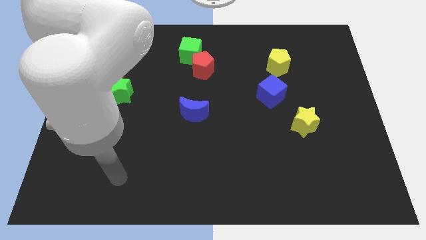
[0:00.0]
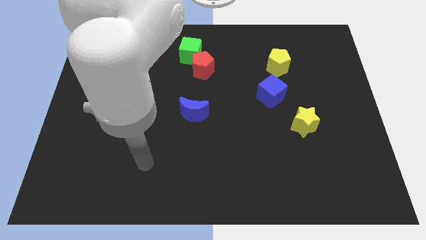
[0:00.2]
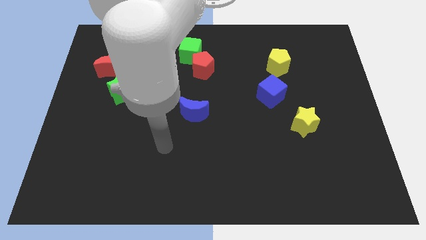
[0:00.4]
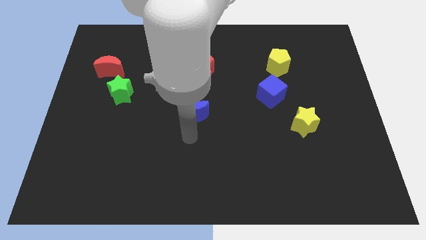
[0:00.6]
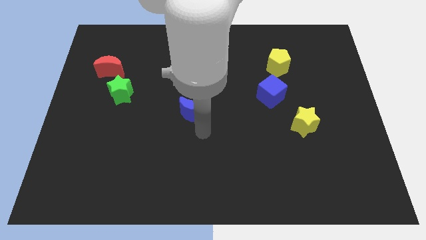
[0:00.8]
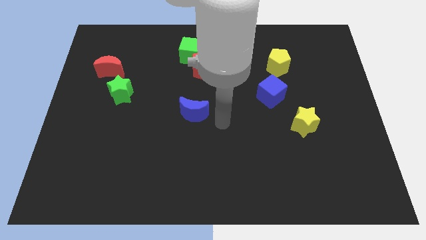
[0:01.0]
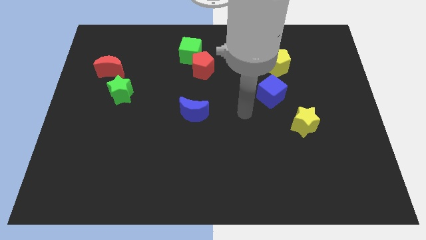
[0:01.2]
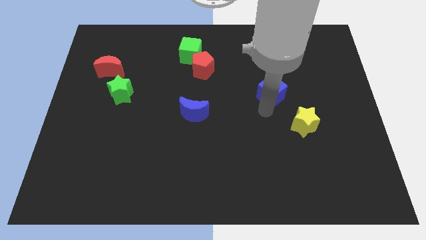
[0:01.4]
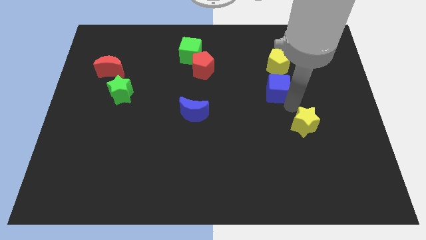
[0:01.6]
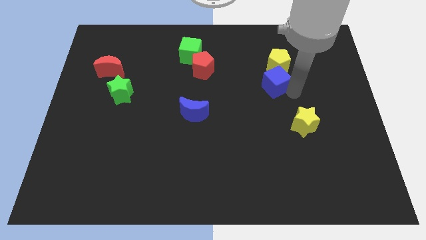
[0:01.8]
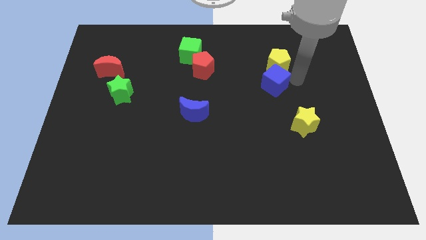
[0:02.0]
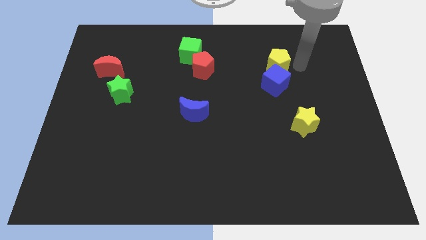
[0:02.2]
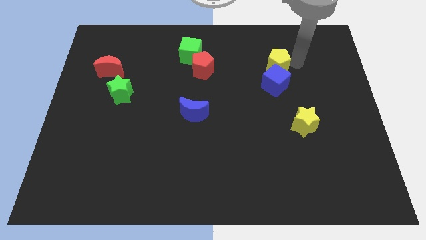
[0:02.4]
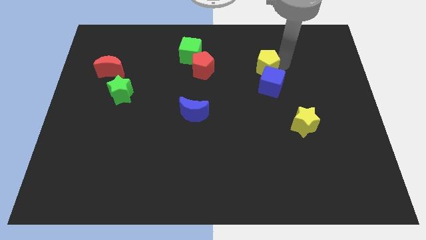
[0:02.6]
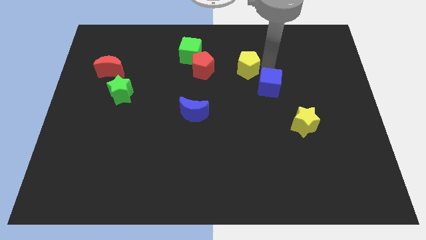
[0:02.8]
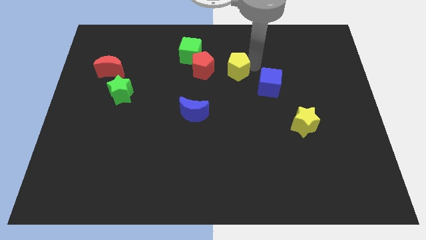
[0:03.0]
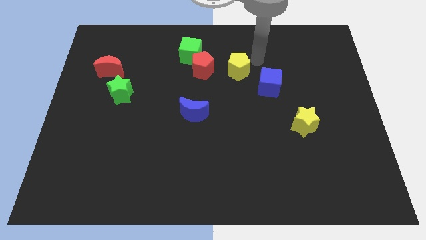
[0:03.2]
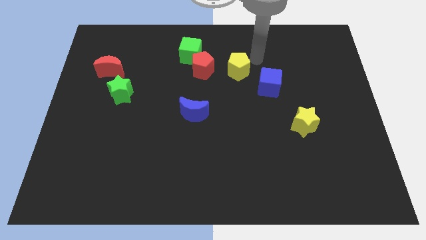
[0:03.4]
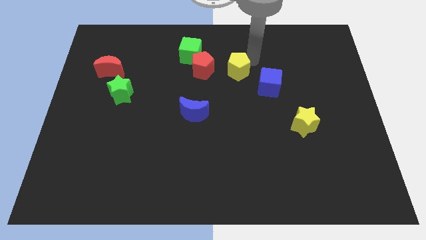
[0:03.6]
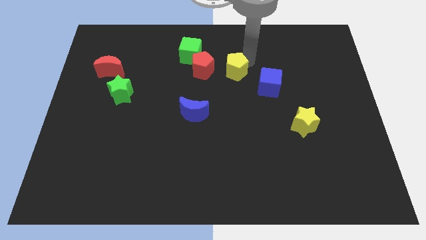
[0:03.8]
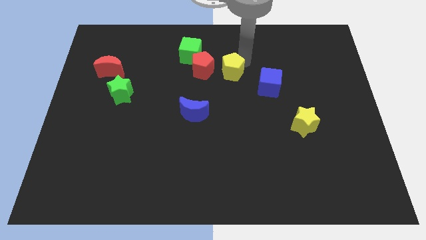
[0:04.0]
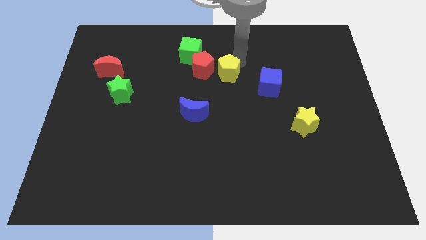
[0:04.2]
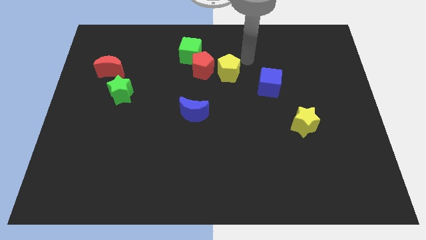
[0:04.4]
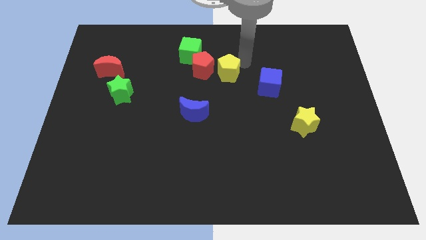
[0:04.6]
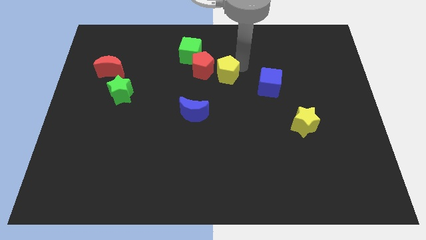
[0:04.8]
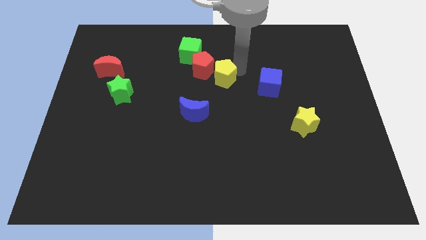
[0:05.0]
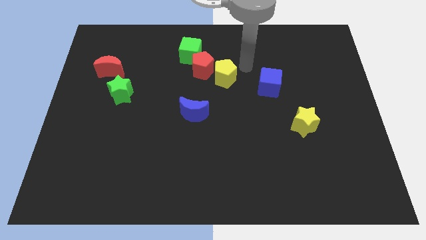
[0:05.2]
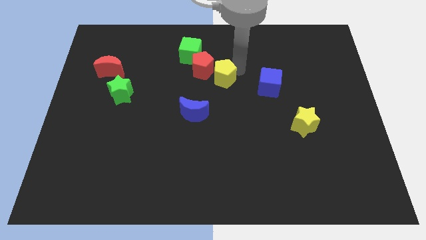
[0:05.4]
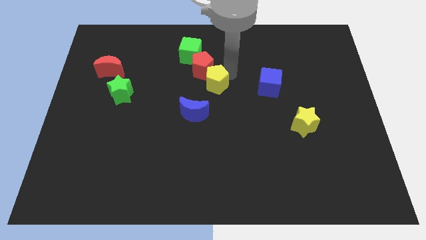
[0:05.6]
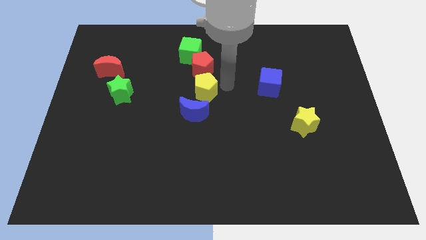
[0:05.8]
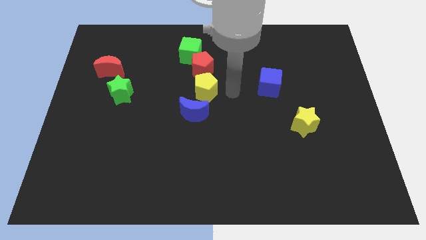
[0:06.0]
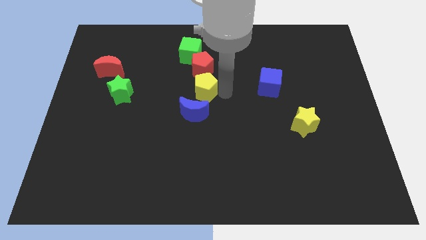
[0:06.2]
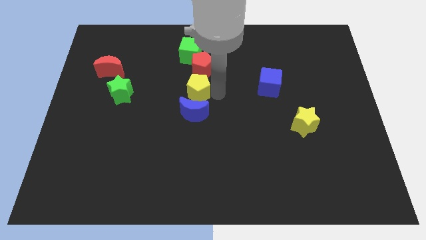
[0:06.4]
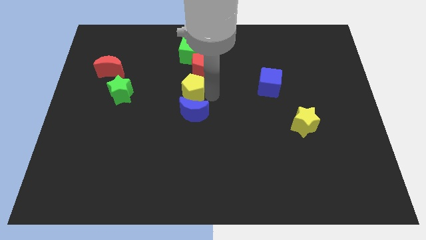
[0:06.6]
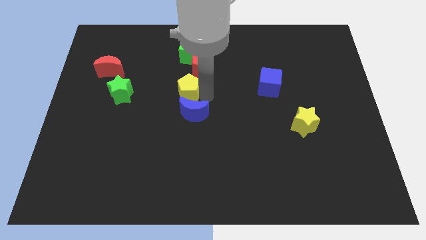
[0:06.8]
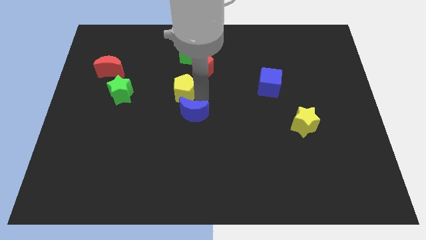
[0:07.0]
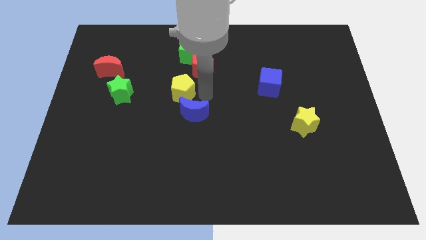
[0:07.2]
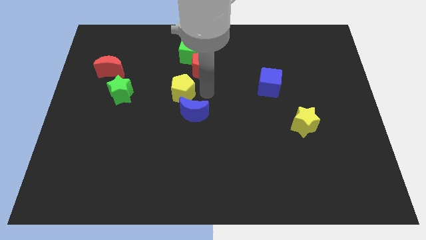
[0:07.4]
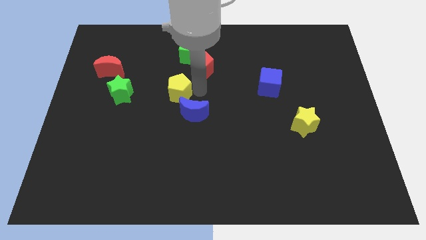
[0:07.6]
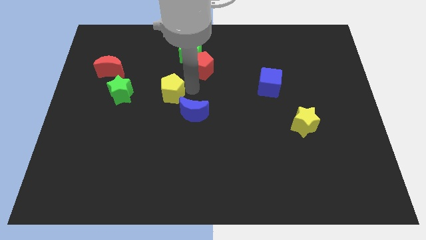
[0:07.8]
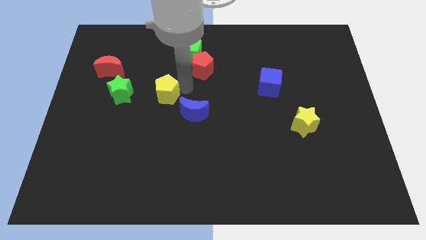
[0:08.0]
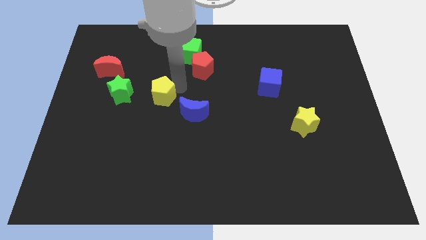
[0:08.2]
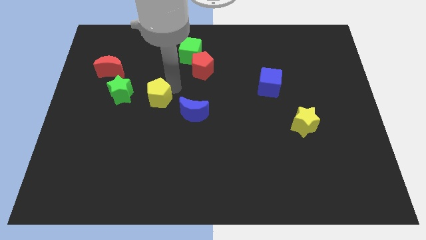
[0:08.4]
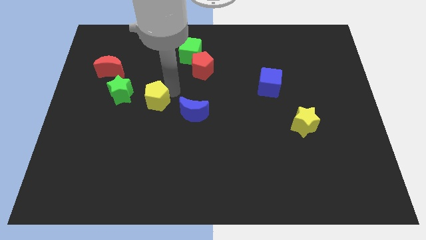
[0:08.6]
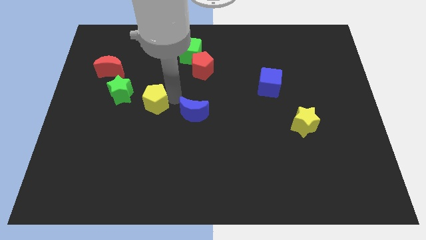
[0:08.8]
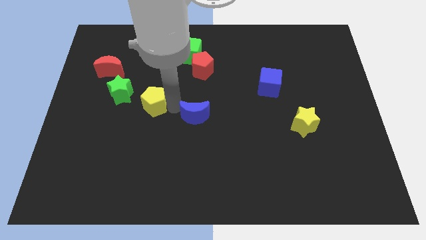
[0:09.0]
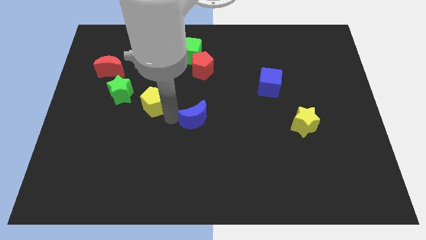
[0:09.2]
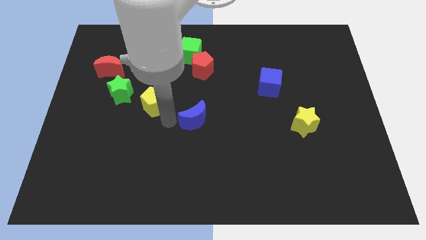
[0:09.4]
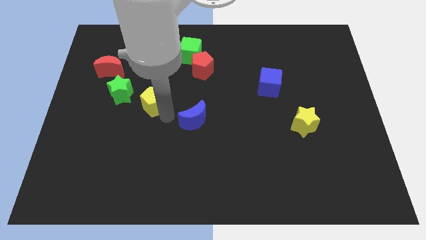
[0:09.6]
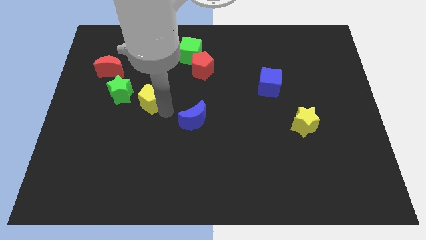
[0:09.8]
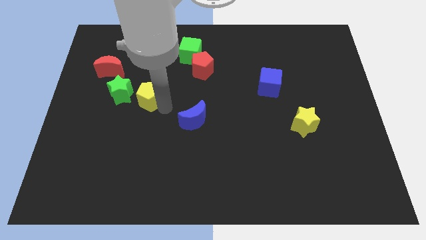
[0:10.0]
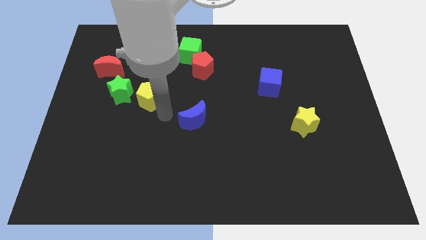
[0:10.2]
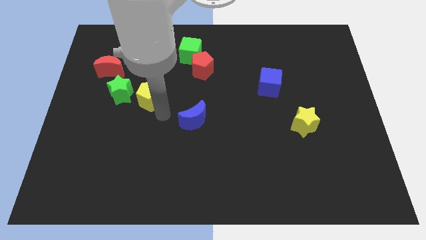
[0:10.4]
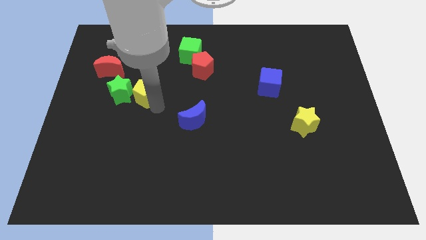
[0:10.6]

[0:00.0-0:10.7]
put the yellow pentagon close to the green star

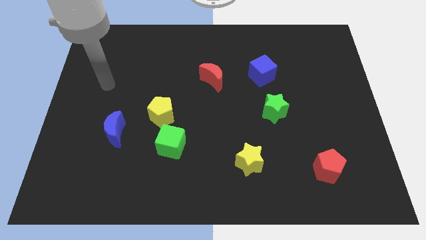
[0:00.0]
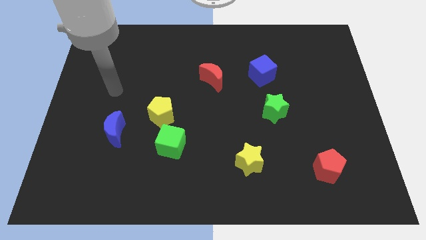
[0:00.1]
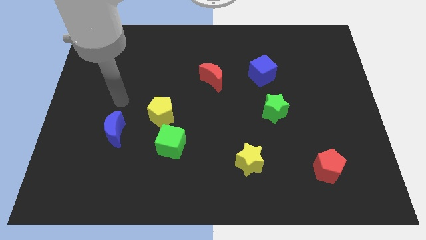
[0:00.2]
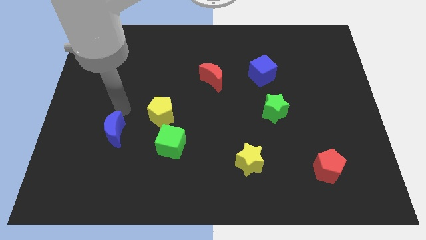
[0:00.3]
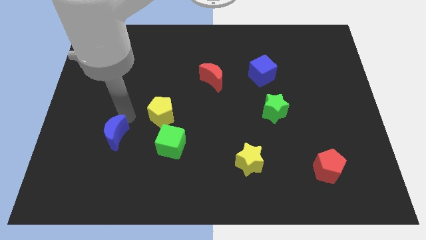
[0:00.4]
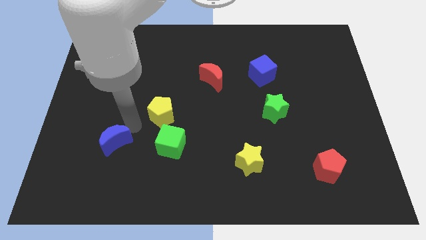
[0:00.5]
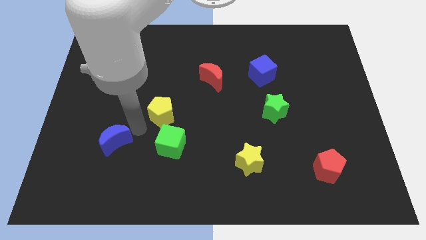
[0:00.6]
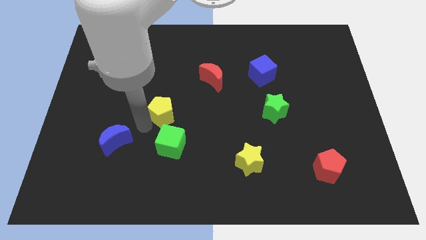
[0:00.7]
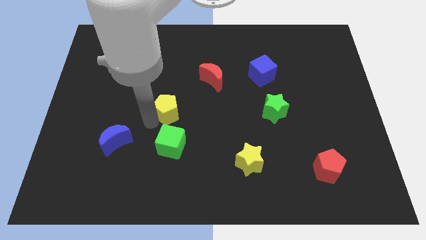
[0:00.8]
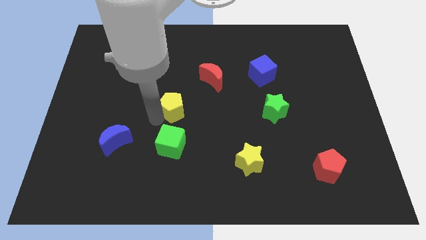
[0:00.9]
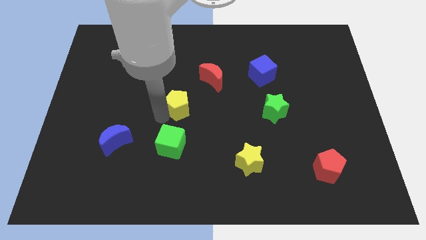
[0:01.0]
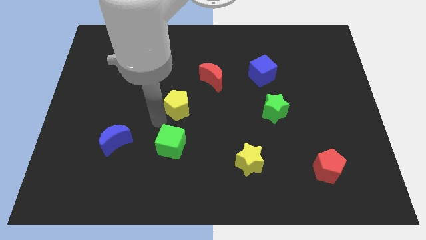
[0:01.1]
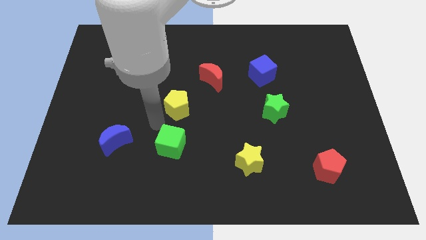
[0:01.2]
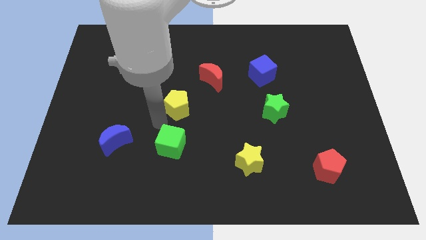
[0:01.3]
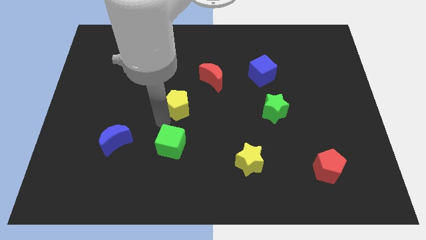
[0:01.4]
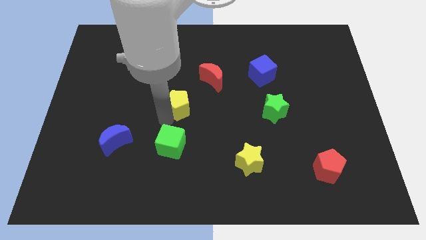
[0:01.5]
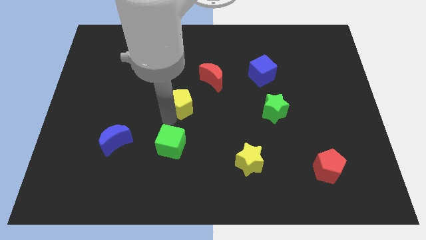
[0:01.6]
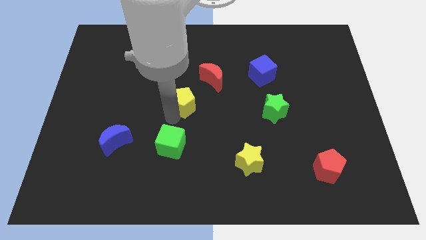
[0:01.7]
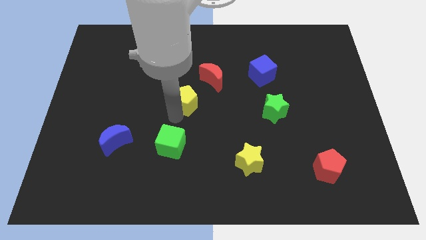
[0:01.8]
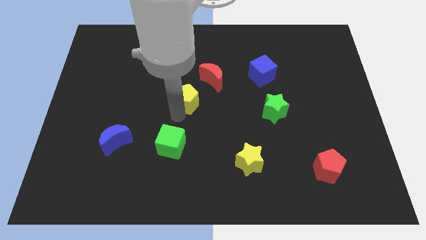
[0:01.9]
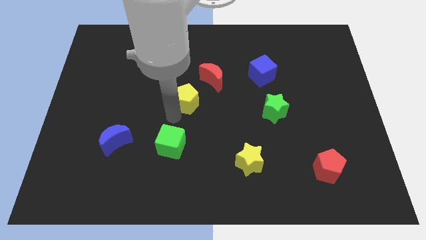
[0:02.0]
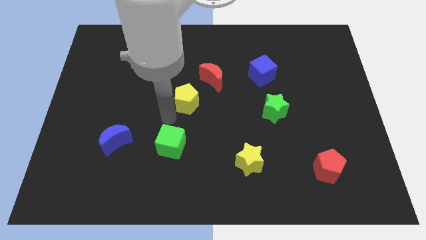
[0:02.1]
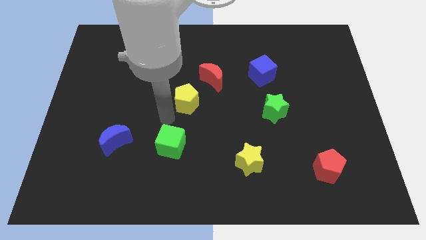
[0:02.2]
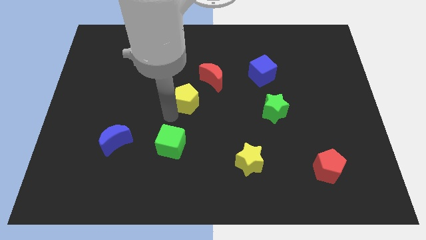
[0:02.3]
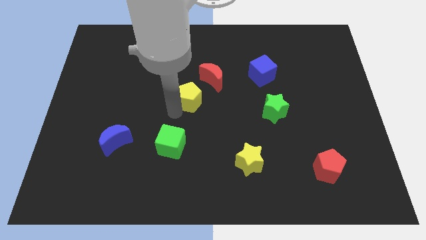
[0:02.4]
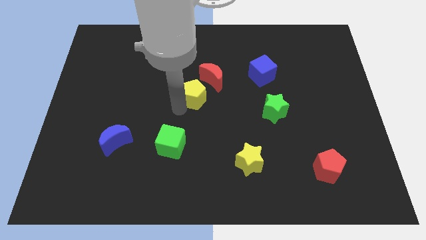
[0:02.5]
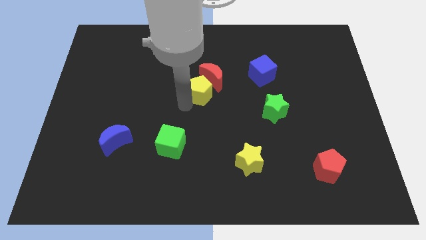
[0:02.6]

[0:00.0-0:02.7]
slide the yellow pentagon close to the red moon
